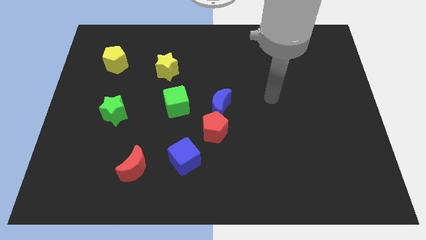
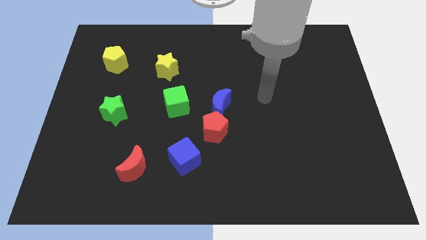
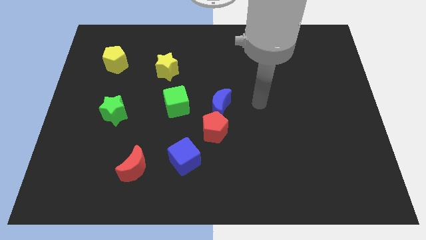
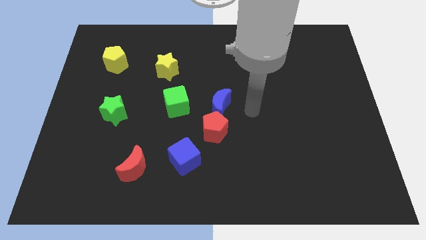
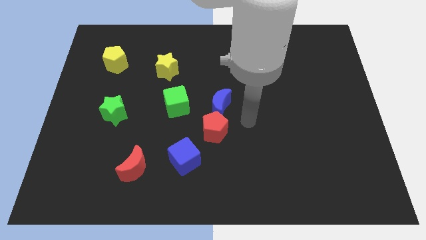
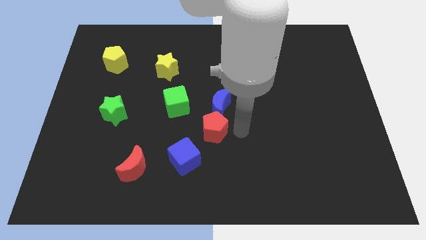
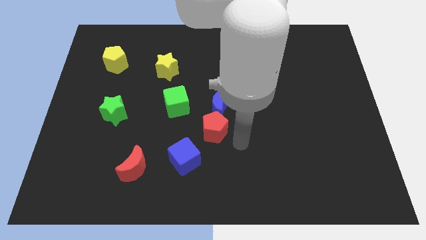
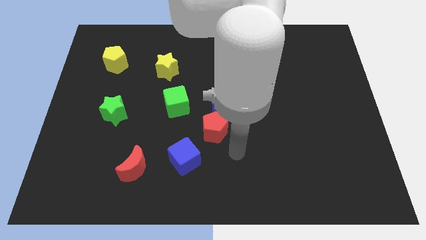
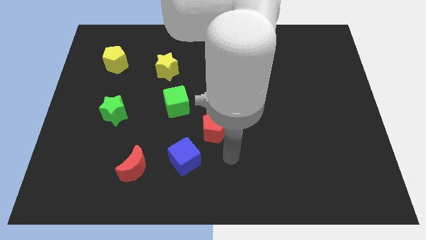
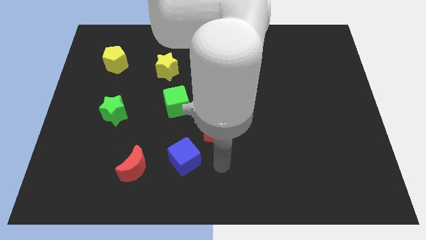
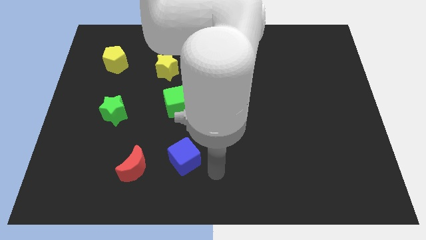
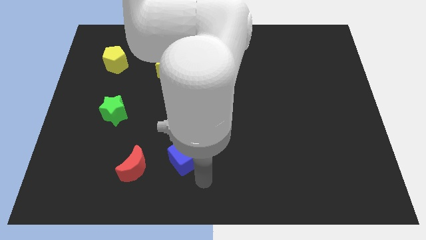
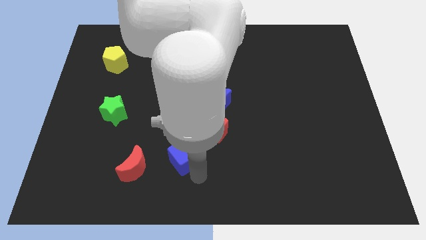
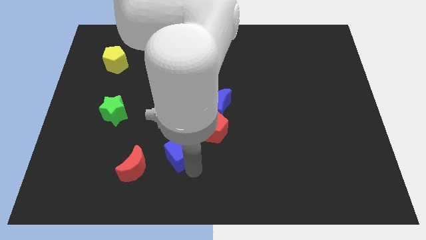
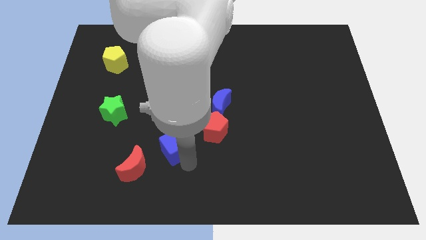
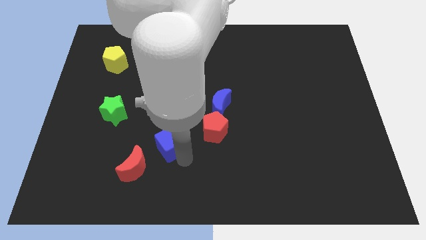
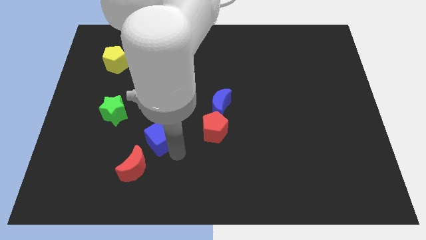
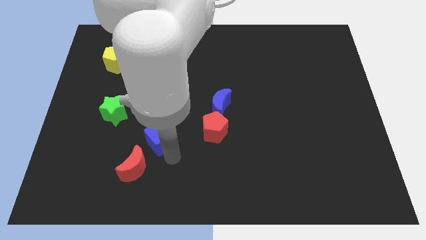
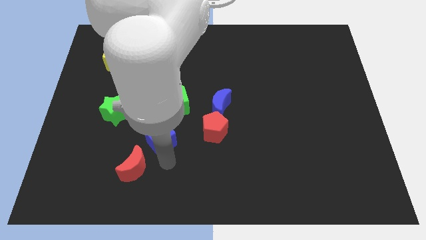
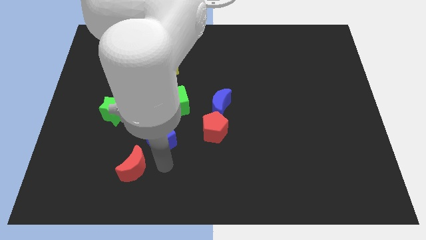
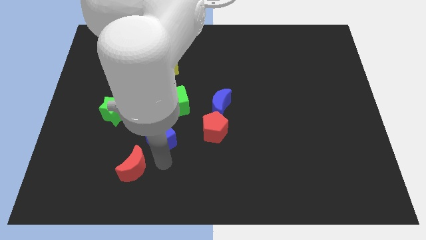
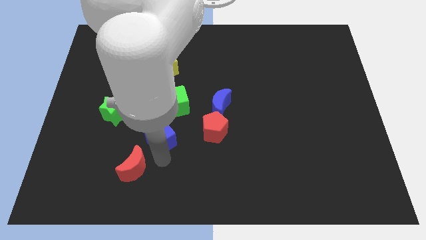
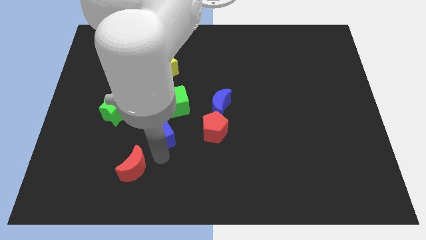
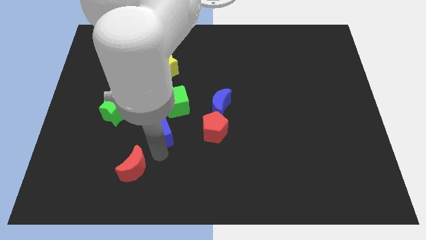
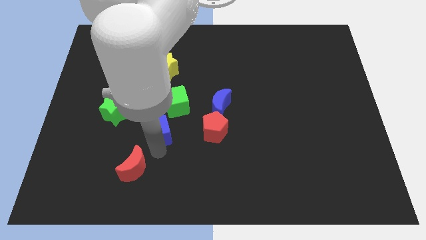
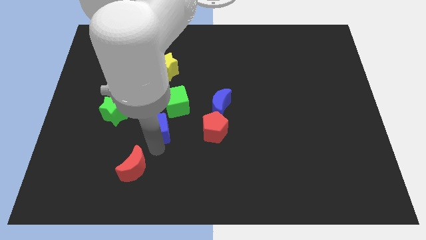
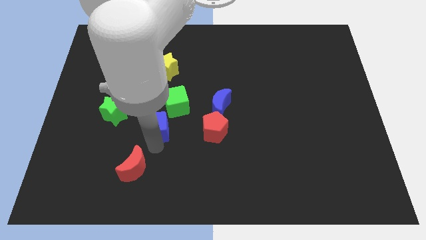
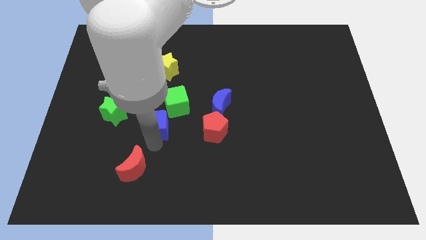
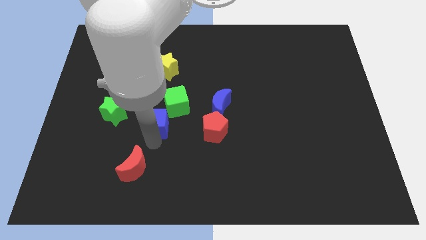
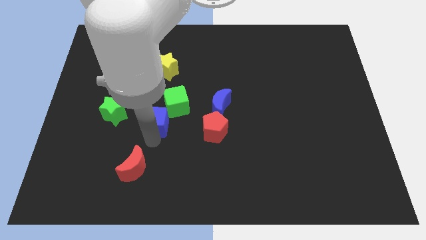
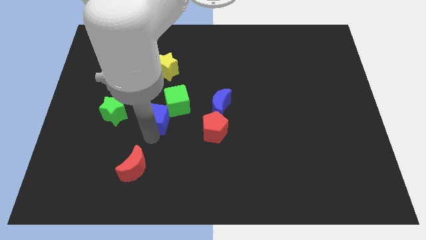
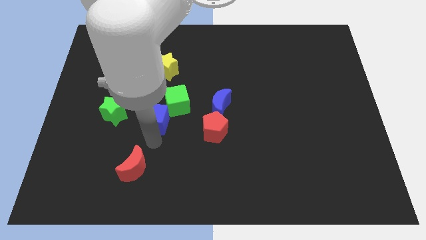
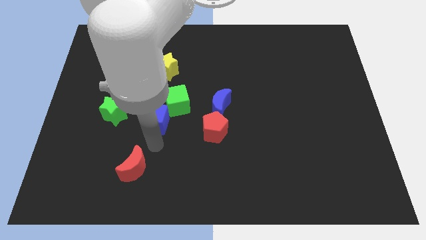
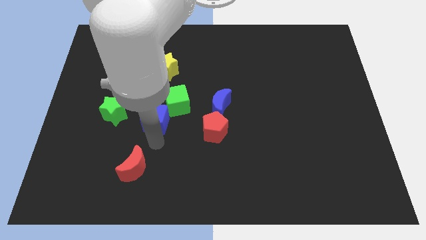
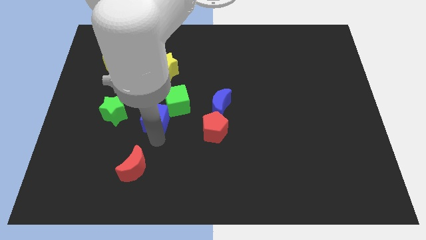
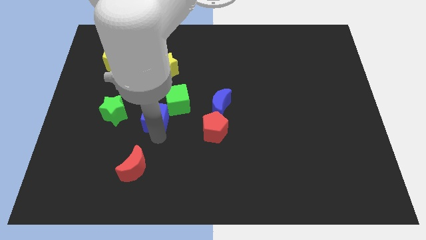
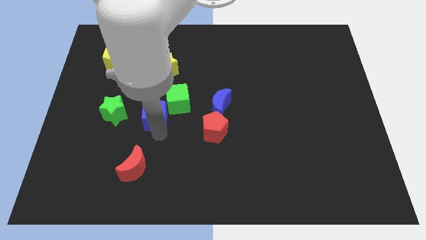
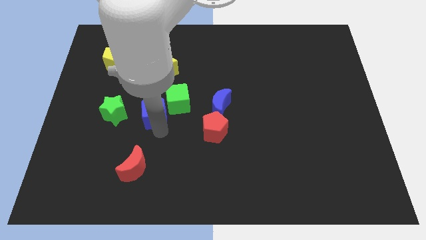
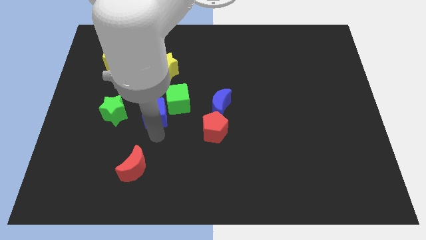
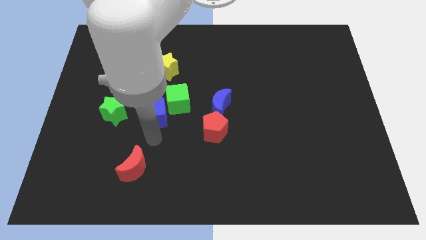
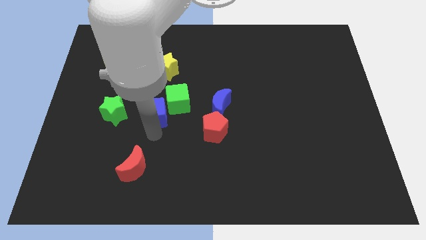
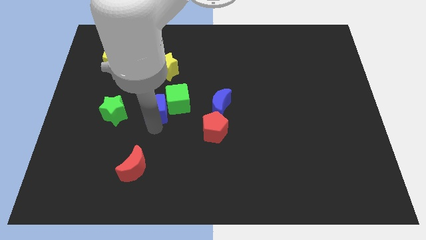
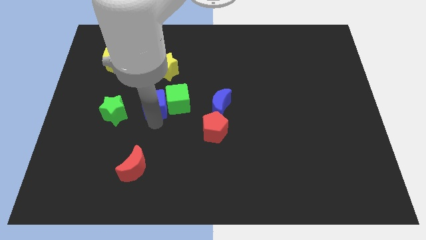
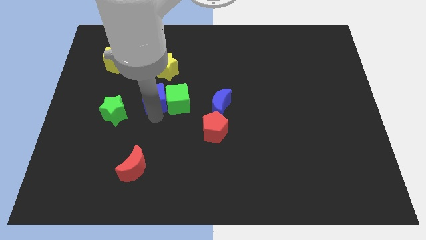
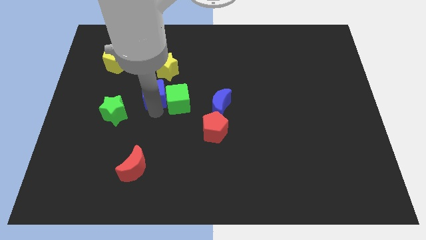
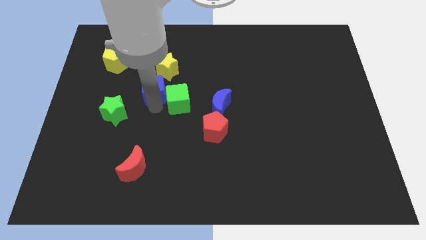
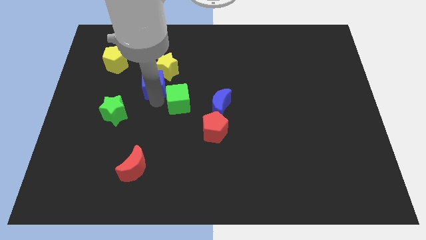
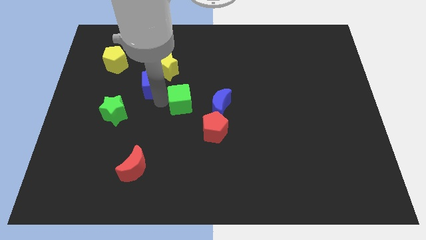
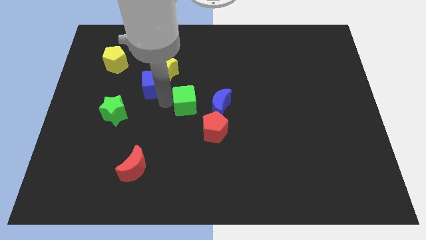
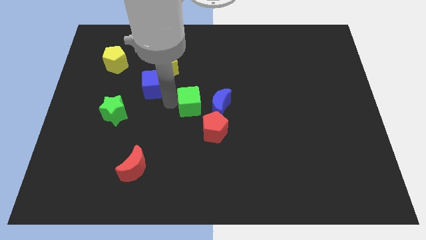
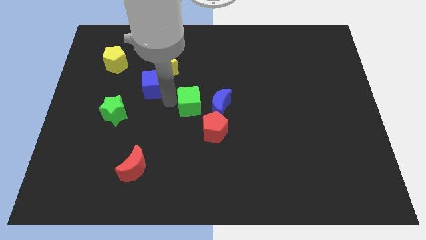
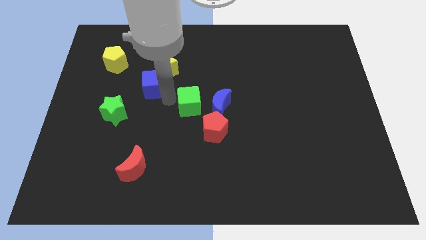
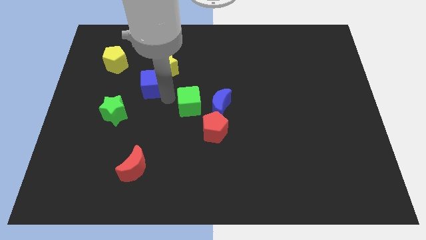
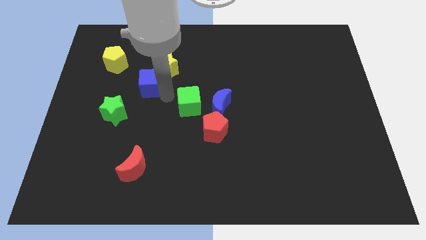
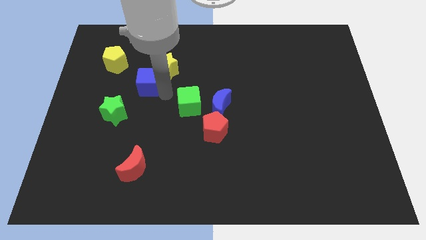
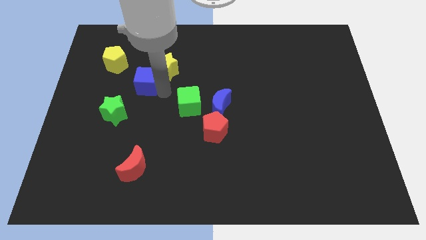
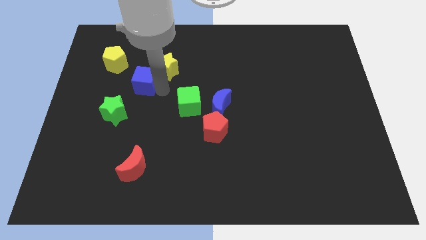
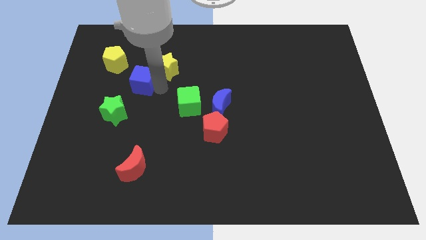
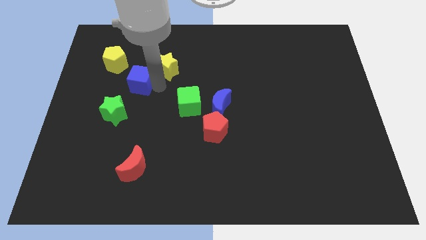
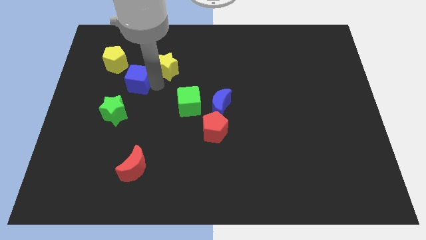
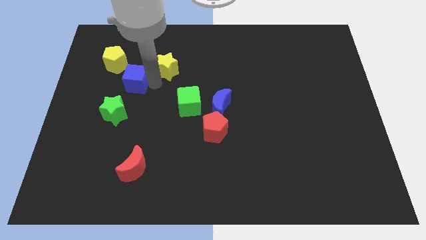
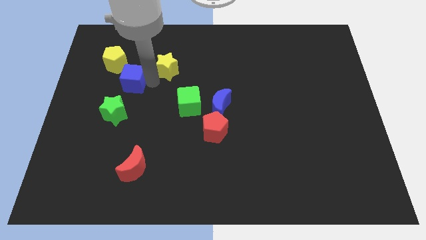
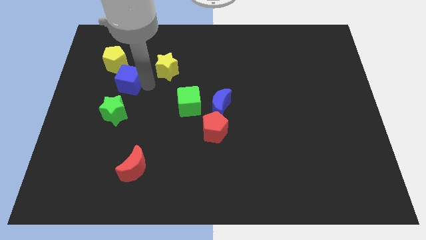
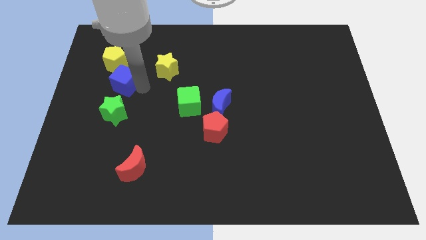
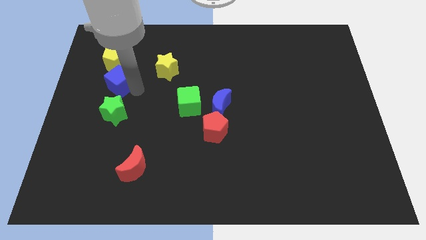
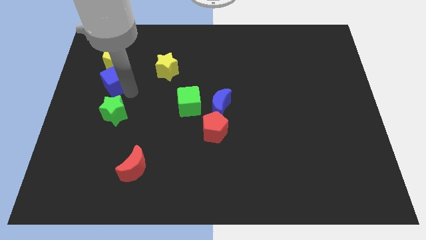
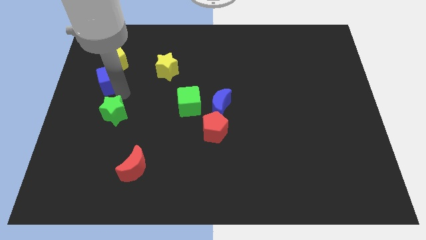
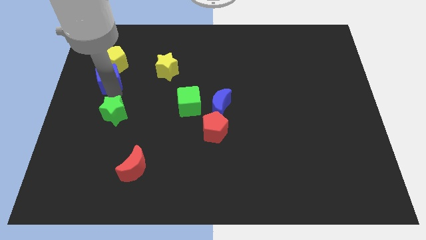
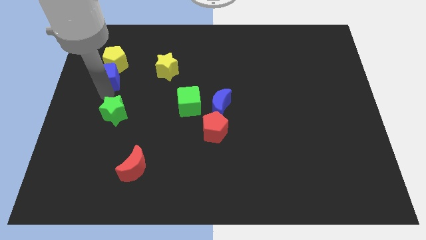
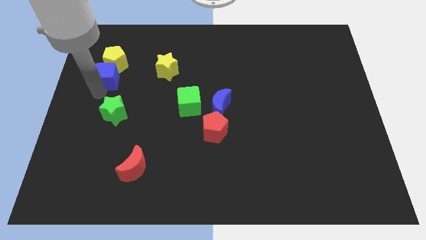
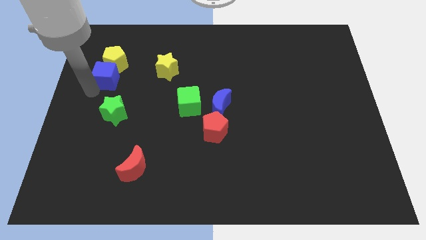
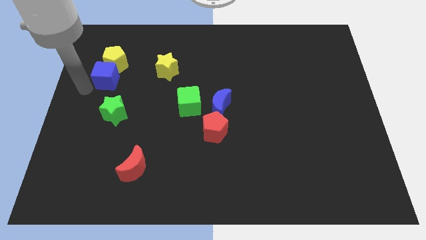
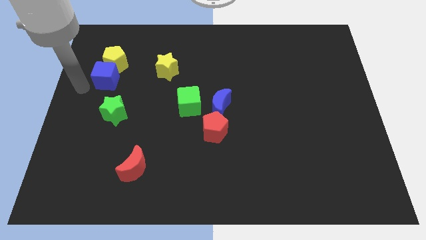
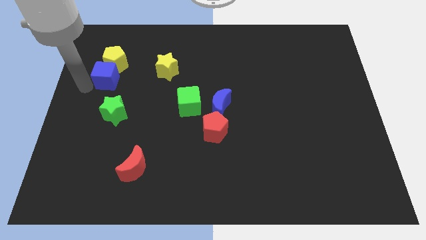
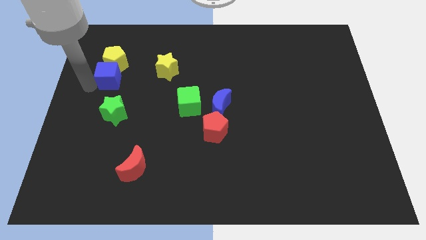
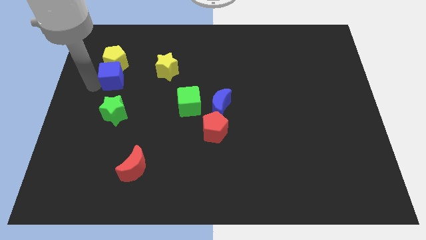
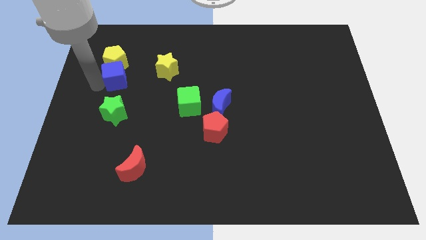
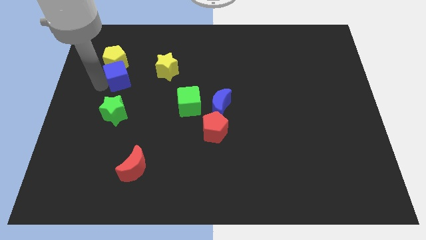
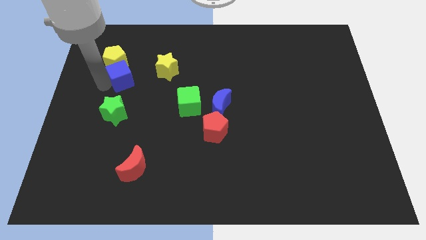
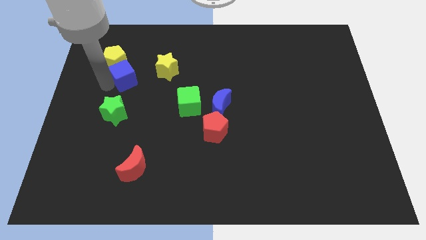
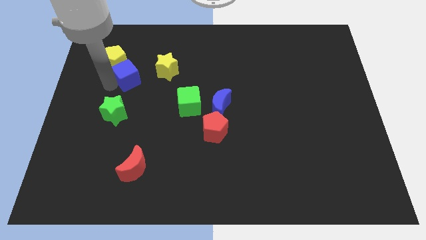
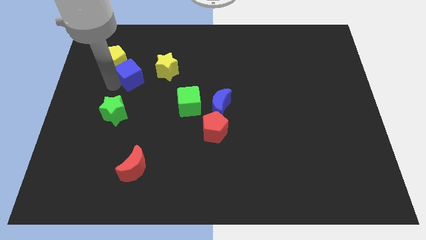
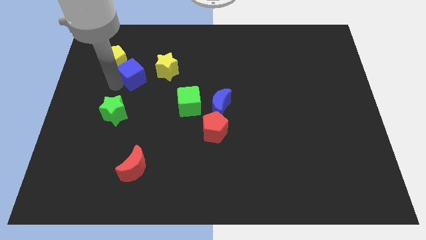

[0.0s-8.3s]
move the blue cube just right of the yellow pentagon
